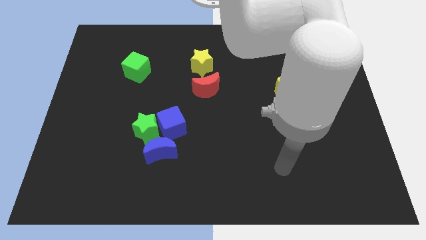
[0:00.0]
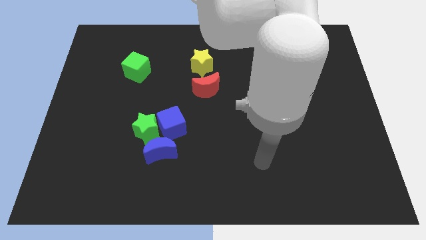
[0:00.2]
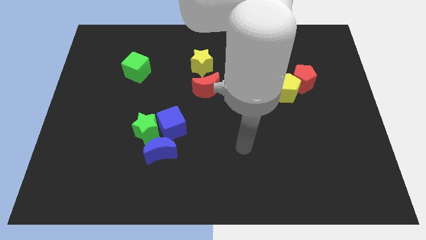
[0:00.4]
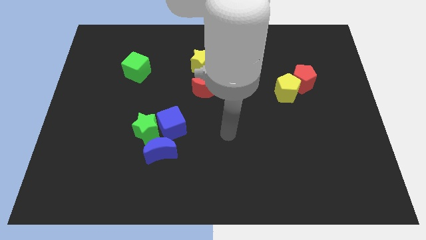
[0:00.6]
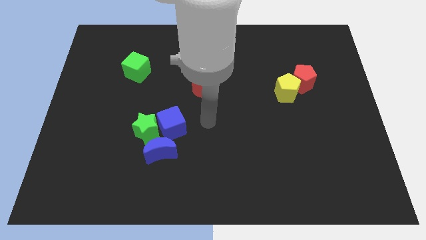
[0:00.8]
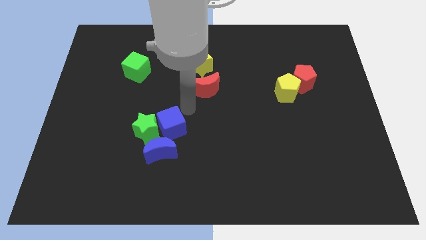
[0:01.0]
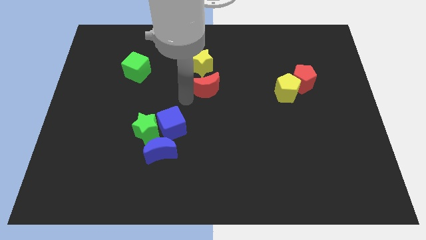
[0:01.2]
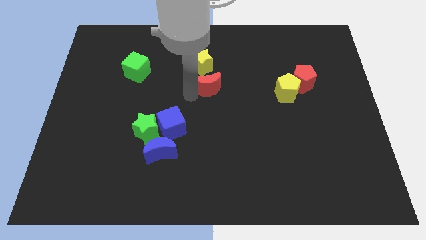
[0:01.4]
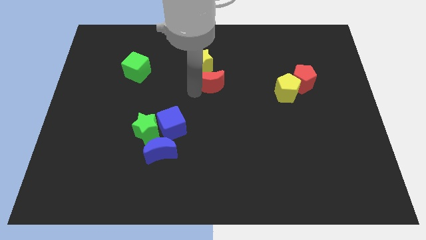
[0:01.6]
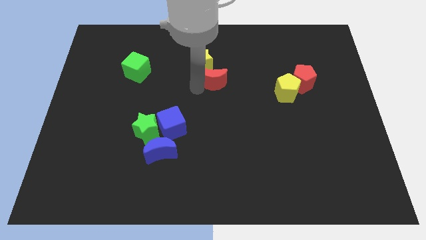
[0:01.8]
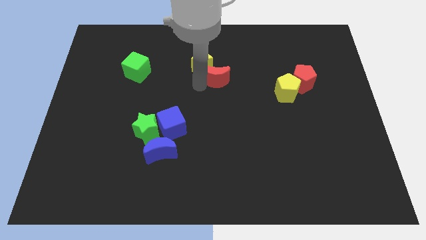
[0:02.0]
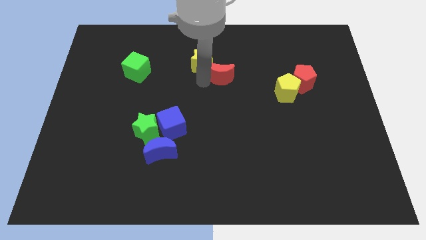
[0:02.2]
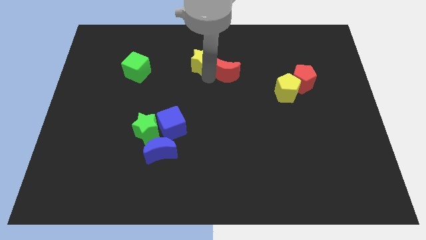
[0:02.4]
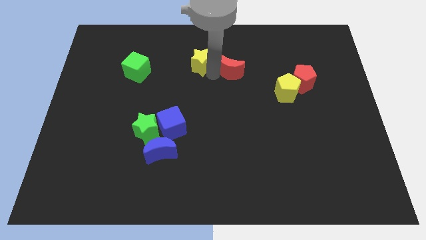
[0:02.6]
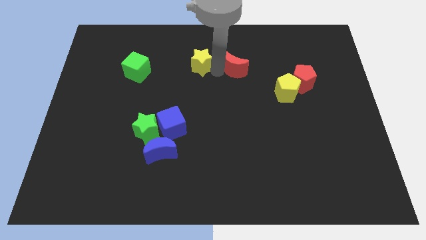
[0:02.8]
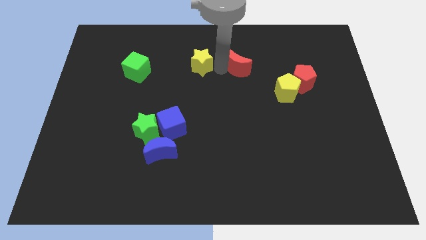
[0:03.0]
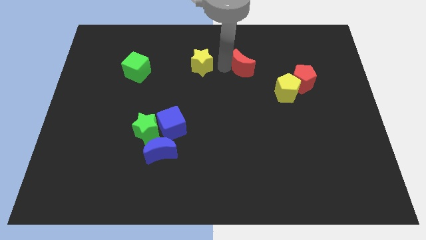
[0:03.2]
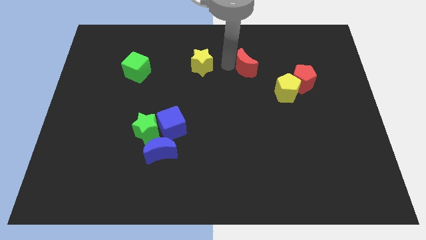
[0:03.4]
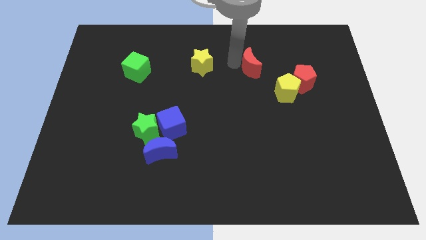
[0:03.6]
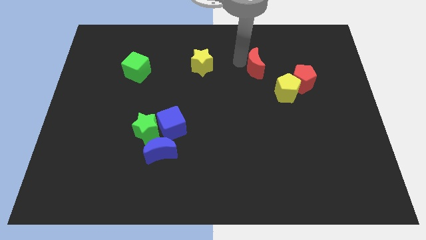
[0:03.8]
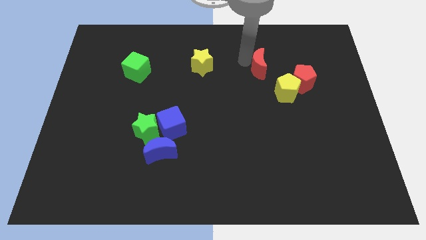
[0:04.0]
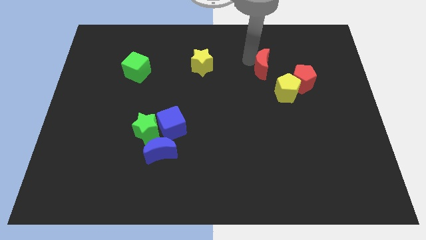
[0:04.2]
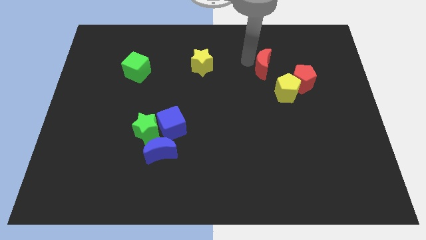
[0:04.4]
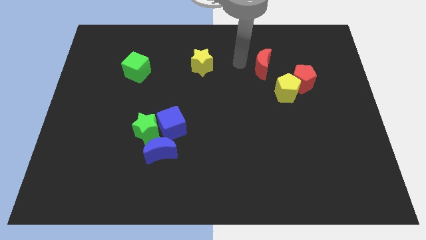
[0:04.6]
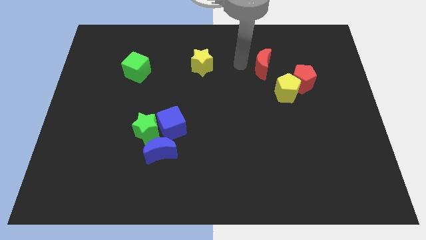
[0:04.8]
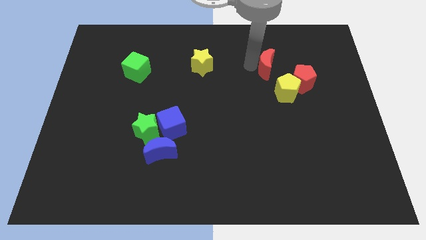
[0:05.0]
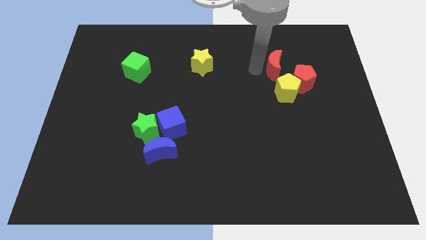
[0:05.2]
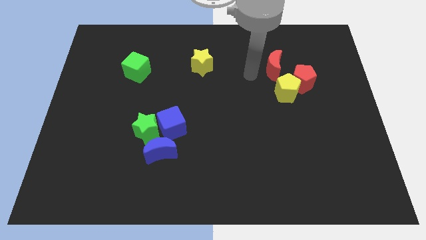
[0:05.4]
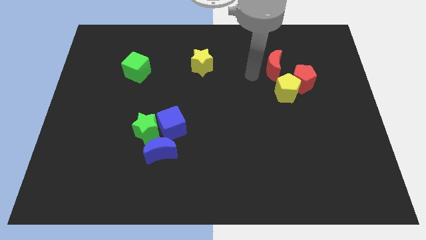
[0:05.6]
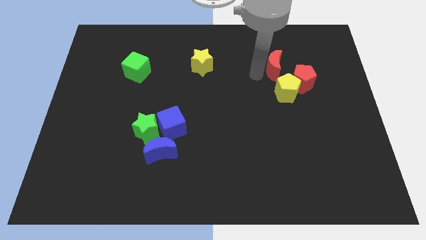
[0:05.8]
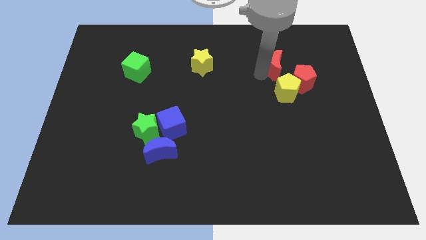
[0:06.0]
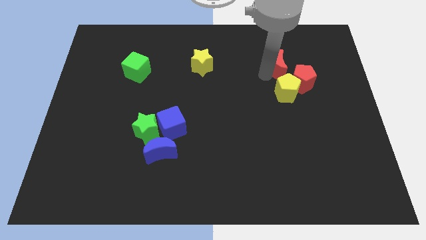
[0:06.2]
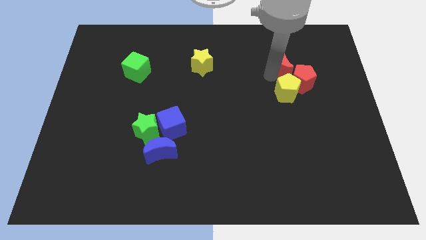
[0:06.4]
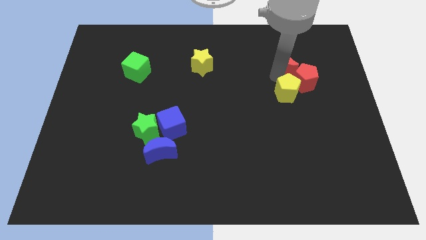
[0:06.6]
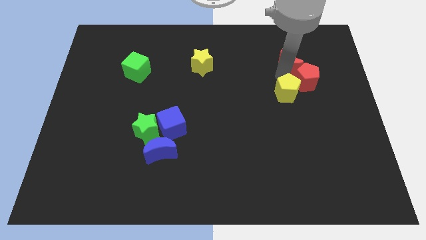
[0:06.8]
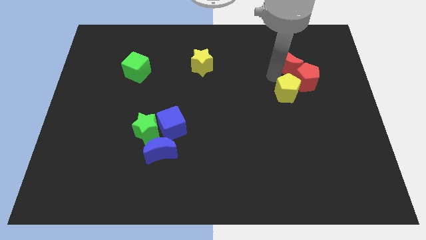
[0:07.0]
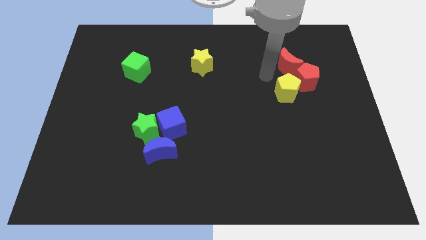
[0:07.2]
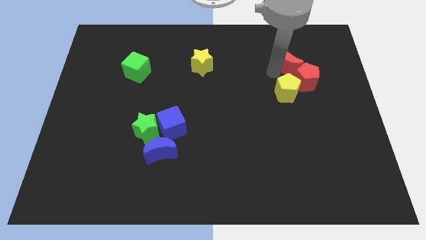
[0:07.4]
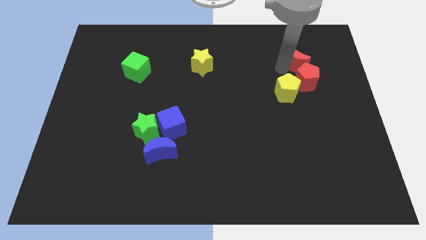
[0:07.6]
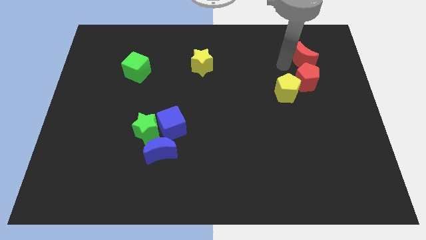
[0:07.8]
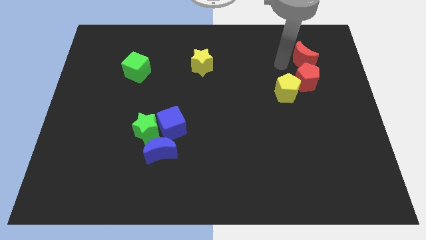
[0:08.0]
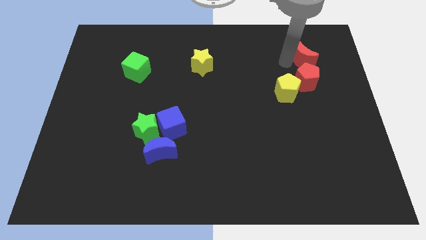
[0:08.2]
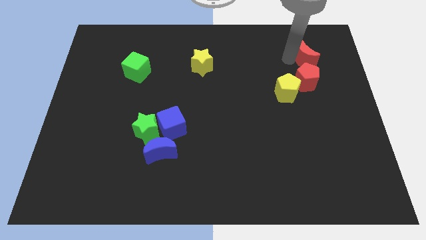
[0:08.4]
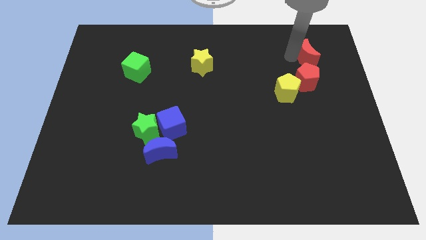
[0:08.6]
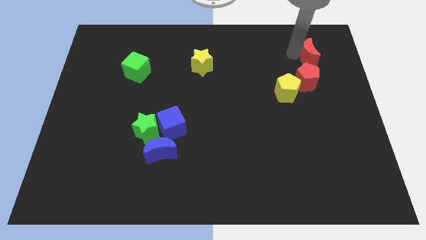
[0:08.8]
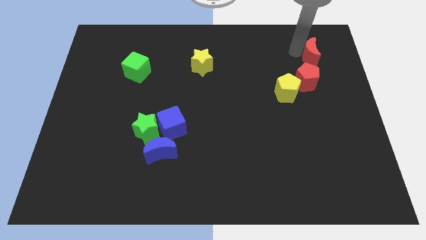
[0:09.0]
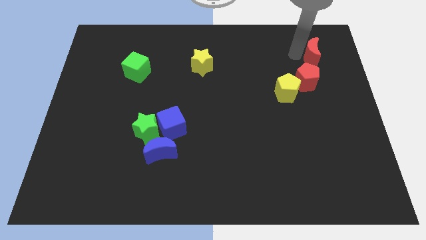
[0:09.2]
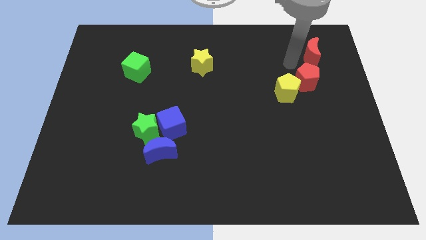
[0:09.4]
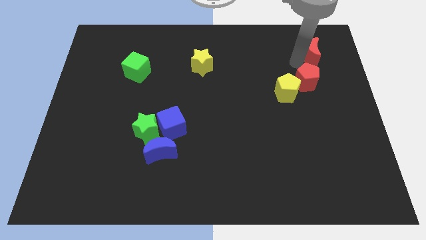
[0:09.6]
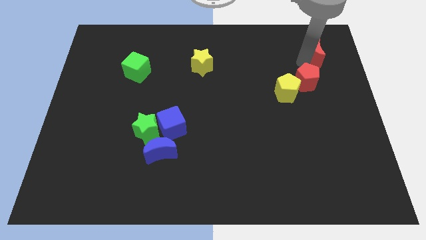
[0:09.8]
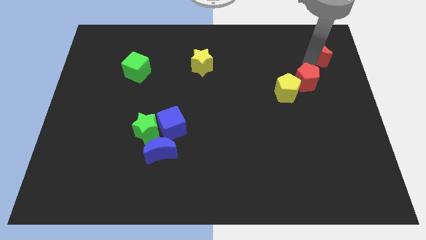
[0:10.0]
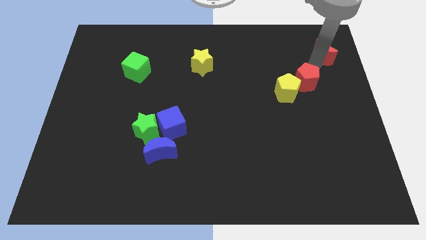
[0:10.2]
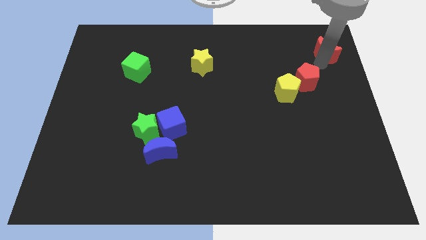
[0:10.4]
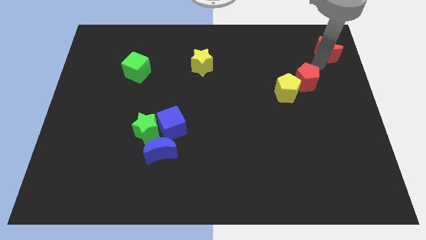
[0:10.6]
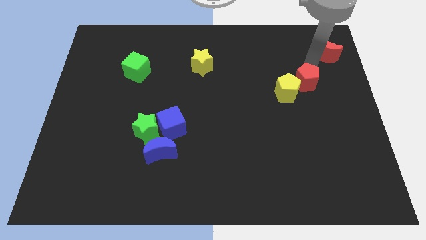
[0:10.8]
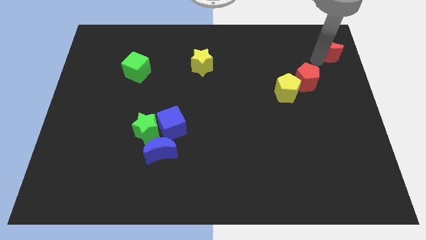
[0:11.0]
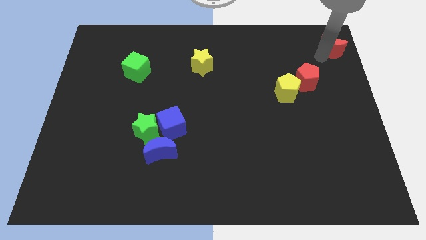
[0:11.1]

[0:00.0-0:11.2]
put the red moon to the top right

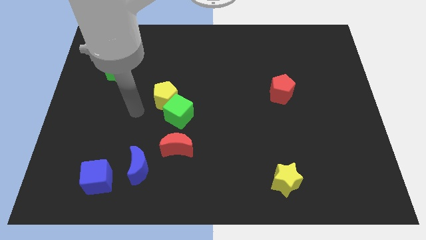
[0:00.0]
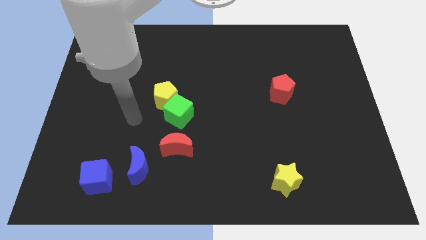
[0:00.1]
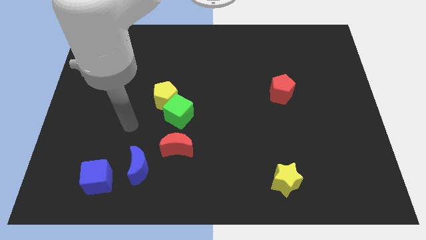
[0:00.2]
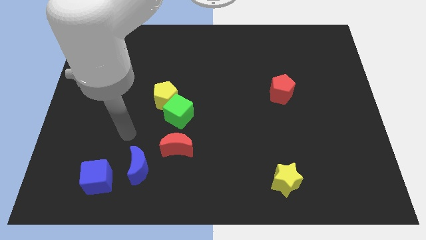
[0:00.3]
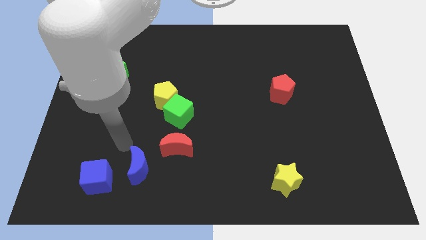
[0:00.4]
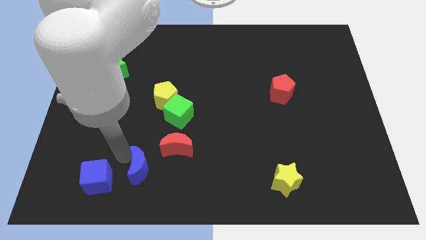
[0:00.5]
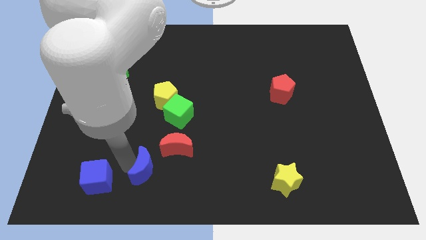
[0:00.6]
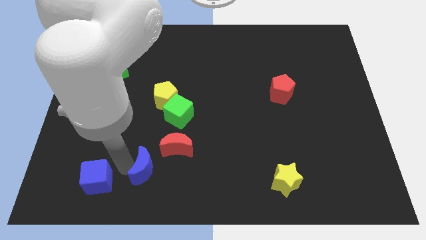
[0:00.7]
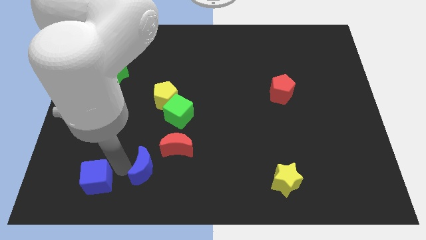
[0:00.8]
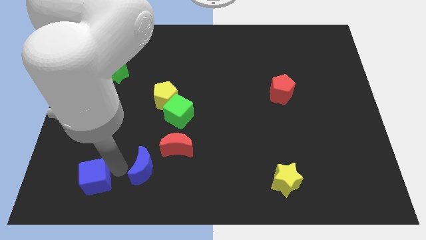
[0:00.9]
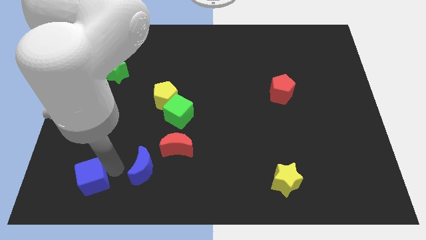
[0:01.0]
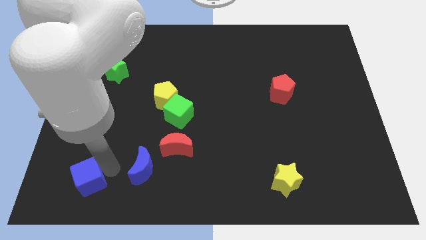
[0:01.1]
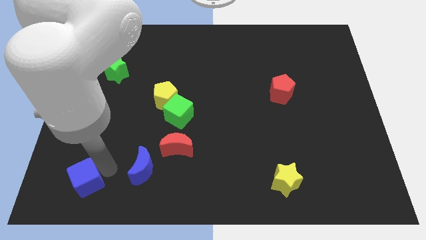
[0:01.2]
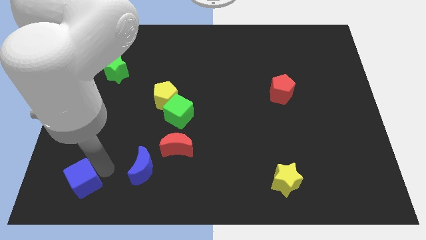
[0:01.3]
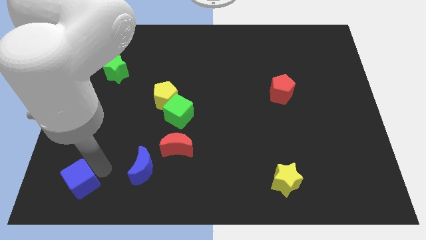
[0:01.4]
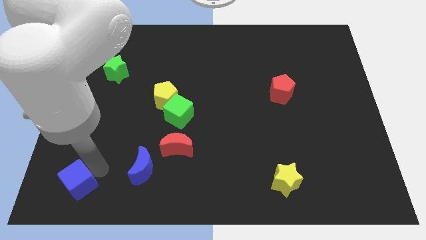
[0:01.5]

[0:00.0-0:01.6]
put the blue cube to the bottom left
